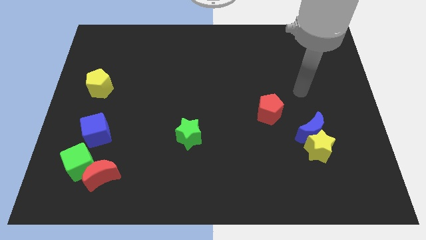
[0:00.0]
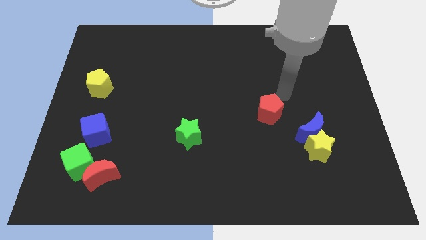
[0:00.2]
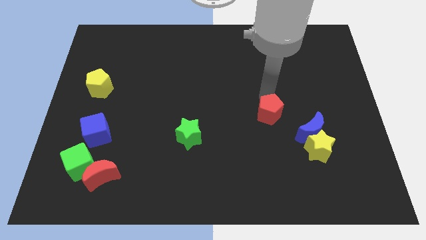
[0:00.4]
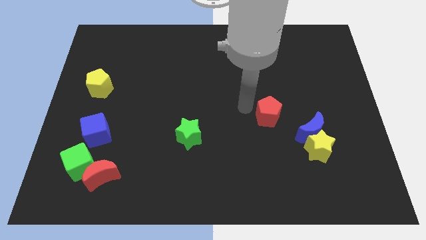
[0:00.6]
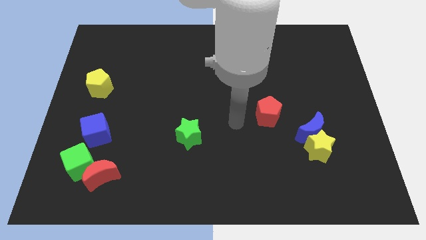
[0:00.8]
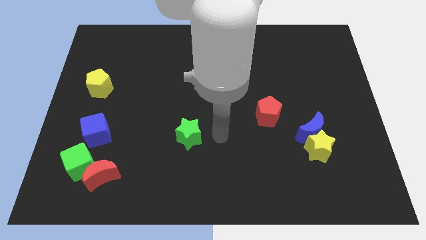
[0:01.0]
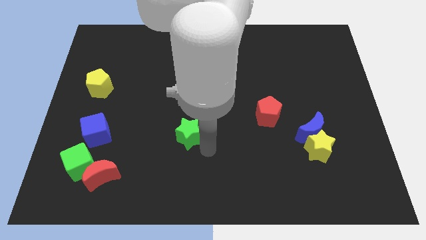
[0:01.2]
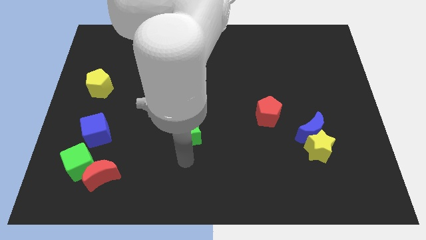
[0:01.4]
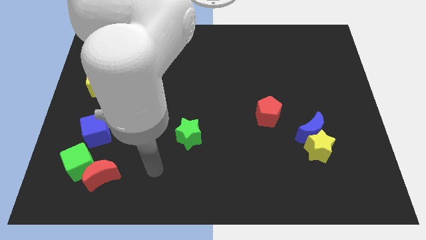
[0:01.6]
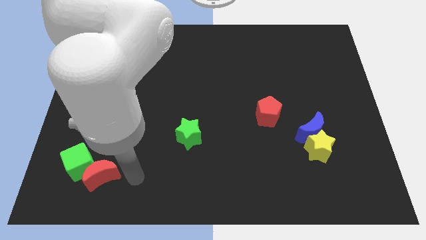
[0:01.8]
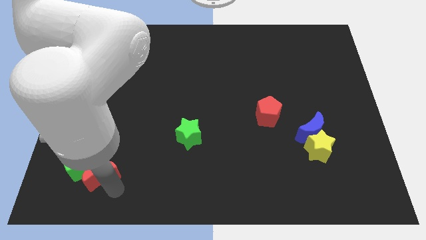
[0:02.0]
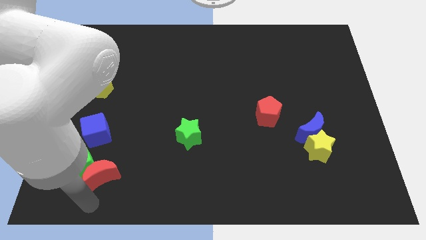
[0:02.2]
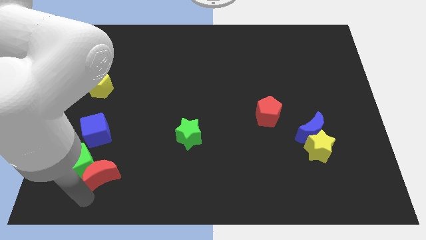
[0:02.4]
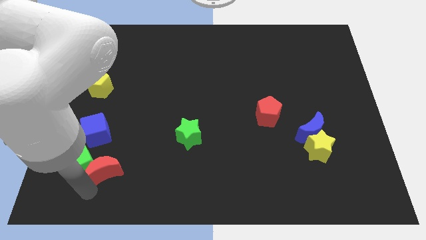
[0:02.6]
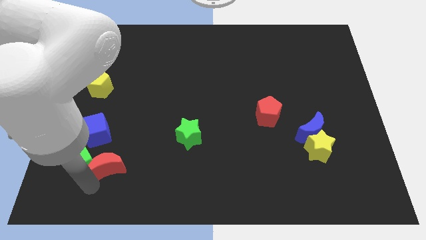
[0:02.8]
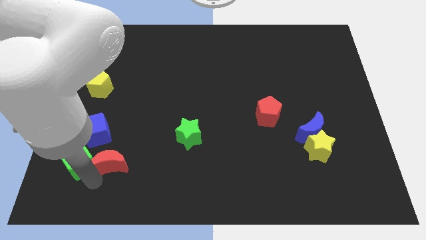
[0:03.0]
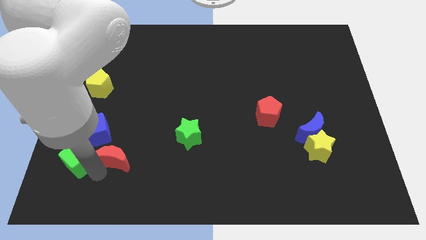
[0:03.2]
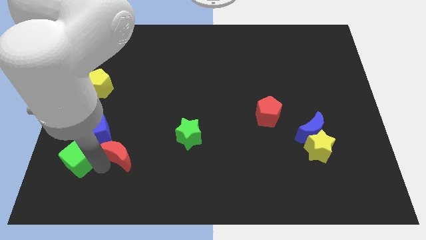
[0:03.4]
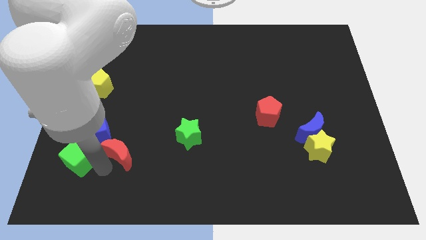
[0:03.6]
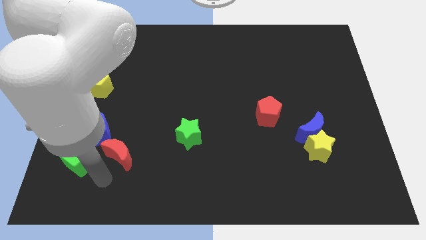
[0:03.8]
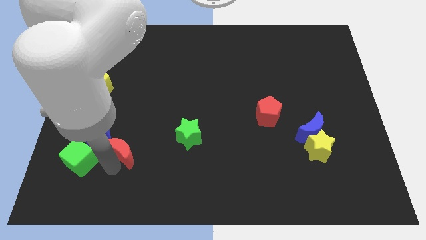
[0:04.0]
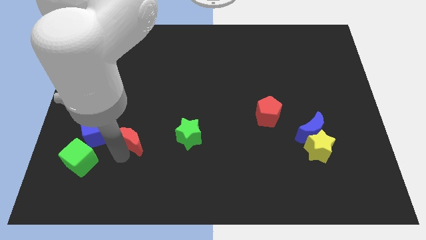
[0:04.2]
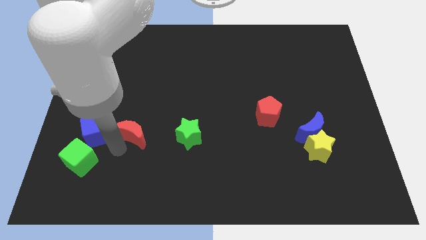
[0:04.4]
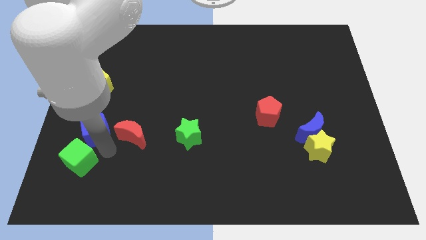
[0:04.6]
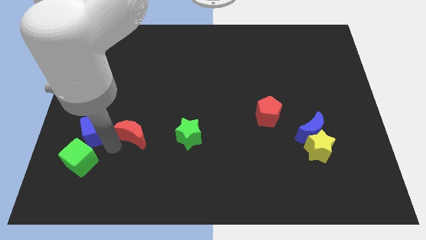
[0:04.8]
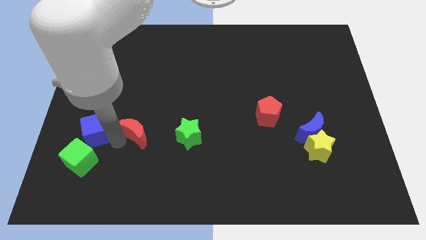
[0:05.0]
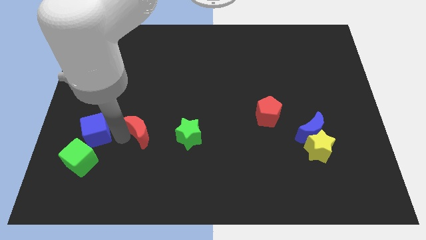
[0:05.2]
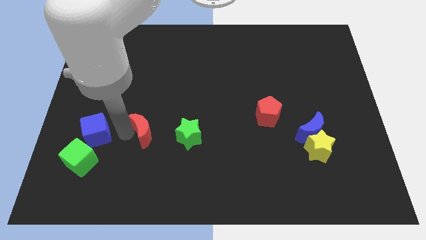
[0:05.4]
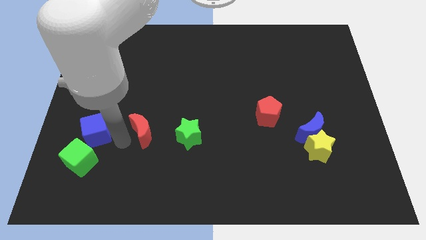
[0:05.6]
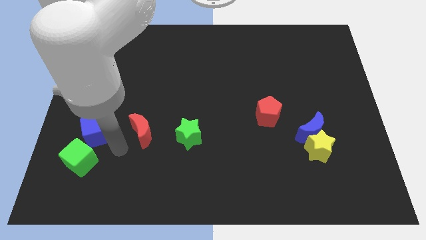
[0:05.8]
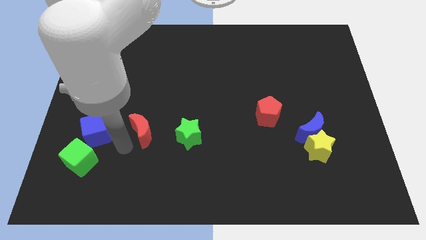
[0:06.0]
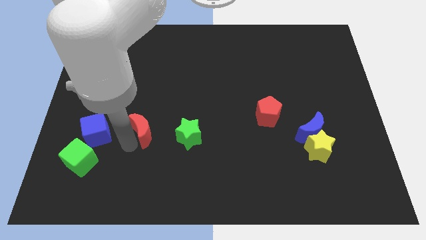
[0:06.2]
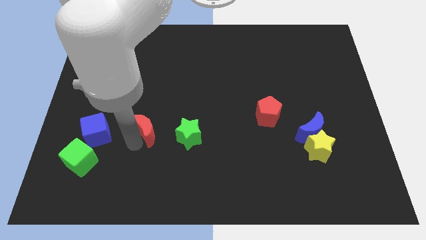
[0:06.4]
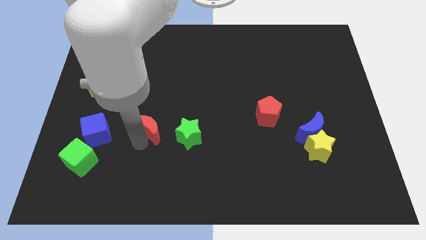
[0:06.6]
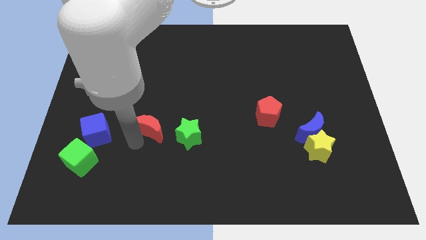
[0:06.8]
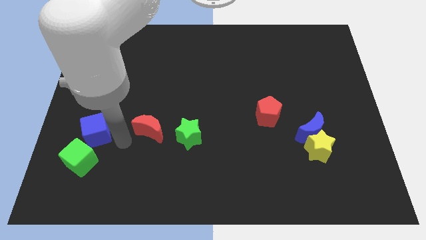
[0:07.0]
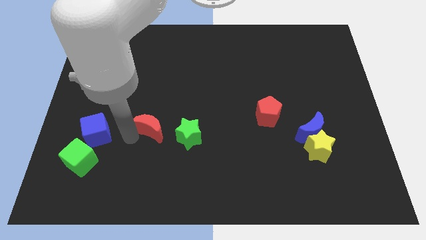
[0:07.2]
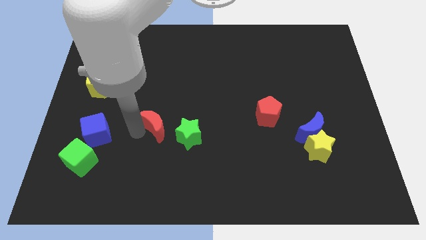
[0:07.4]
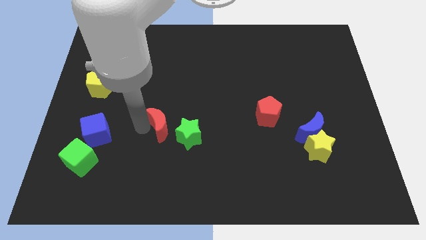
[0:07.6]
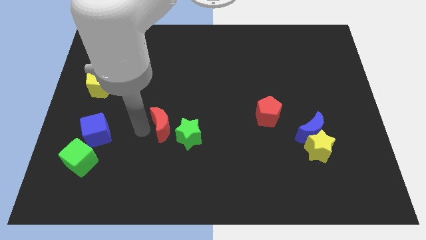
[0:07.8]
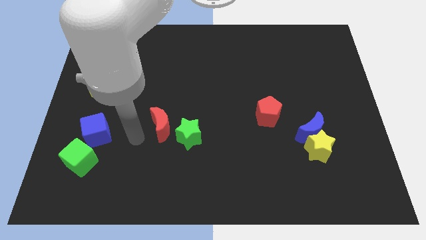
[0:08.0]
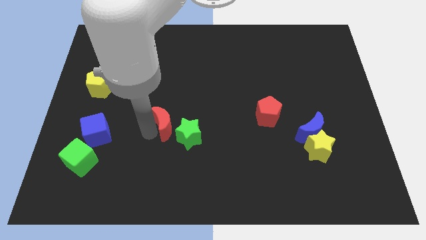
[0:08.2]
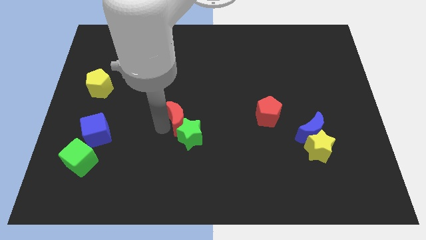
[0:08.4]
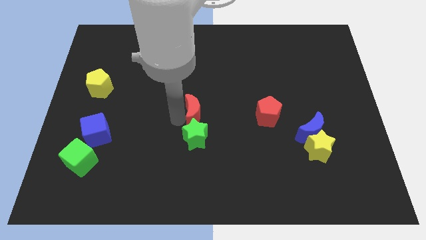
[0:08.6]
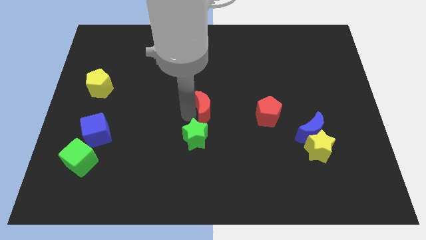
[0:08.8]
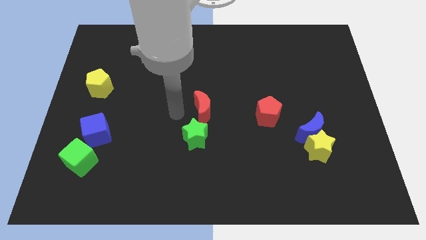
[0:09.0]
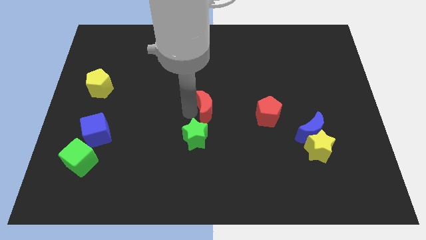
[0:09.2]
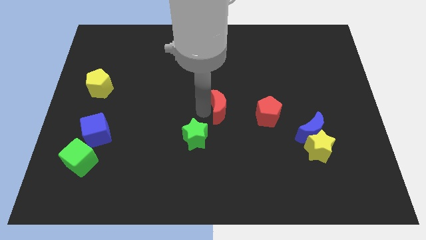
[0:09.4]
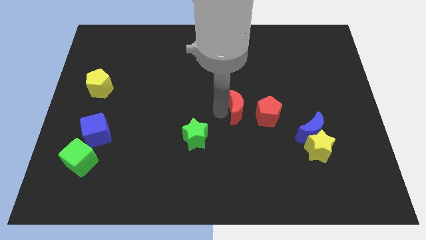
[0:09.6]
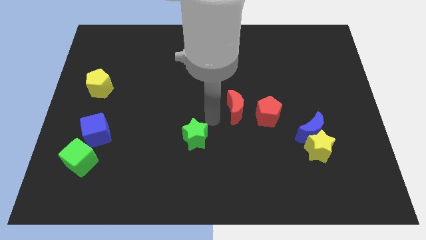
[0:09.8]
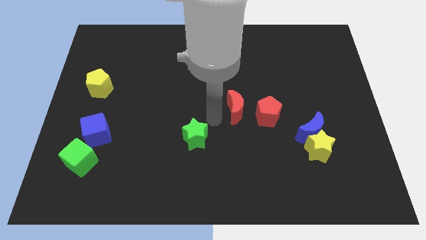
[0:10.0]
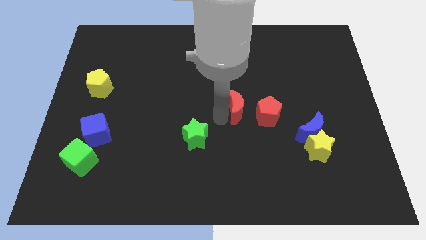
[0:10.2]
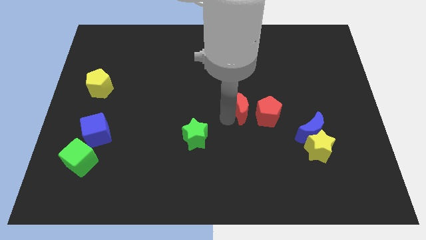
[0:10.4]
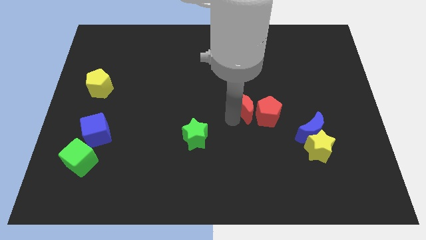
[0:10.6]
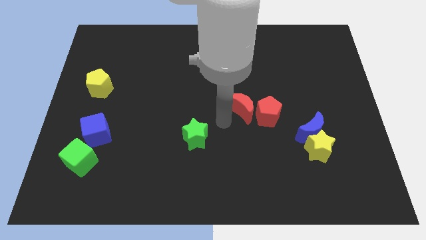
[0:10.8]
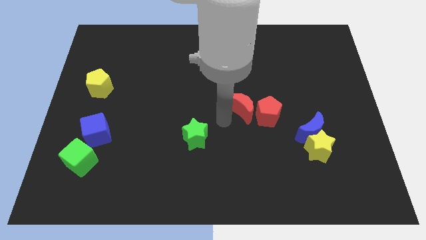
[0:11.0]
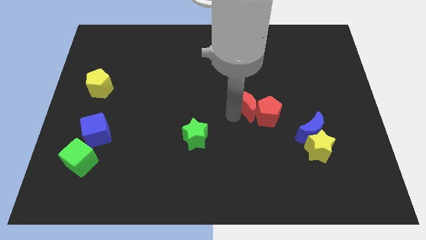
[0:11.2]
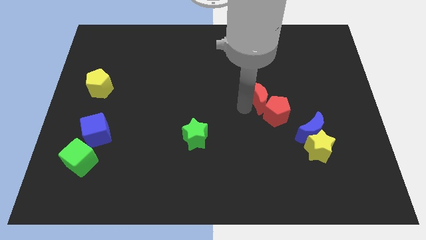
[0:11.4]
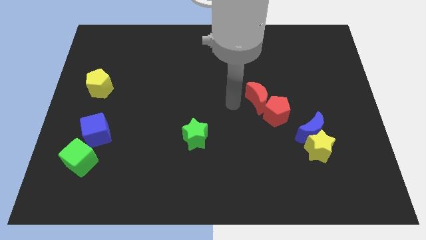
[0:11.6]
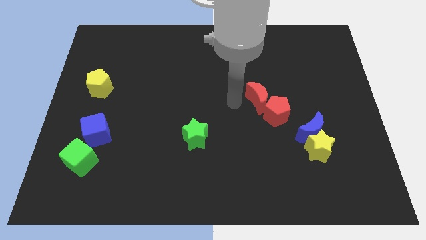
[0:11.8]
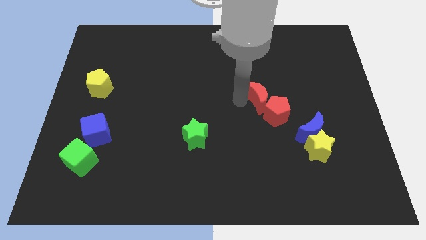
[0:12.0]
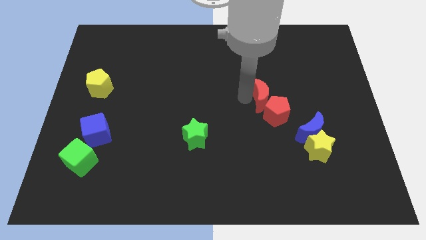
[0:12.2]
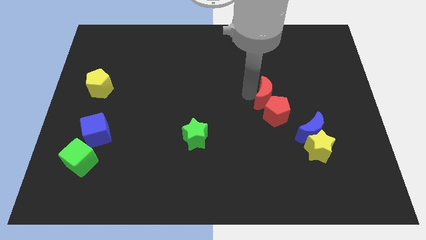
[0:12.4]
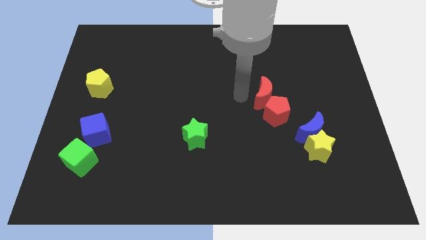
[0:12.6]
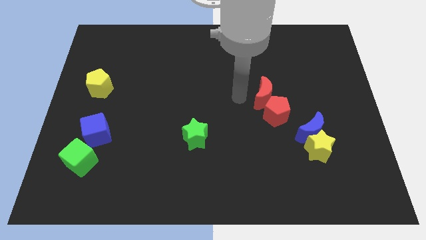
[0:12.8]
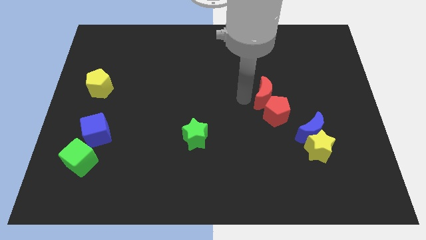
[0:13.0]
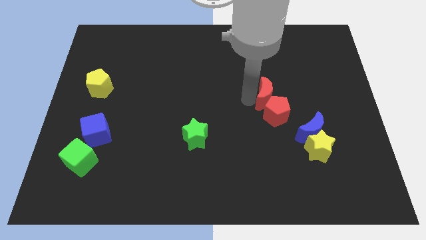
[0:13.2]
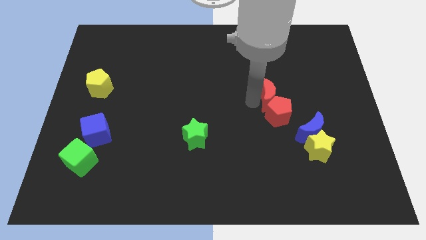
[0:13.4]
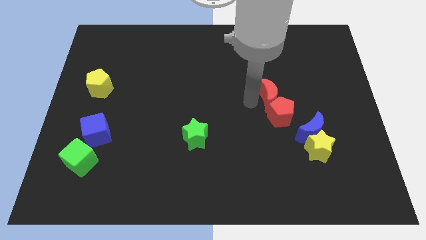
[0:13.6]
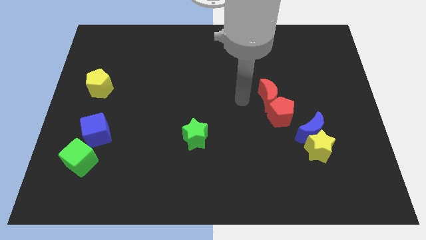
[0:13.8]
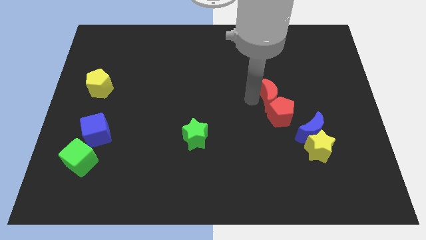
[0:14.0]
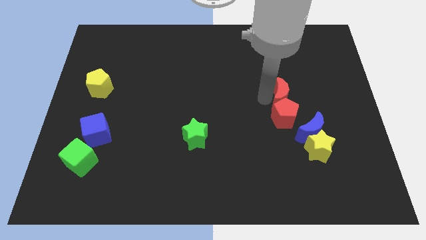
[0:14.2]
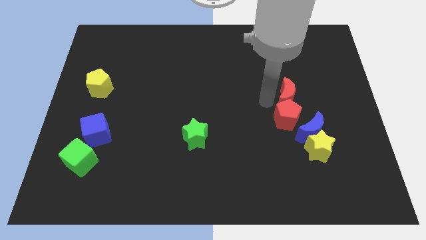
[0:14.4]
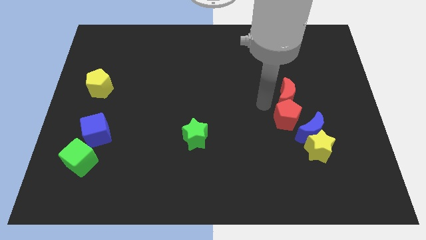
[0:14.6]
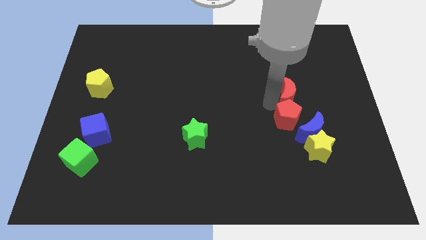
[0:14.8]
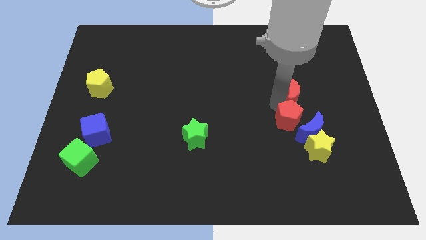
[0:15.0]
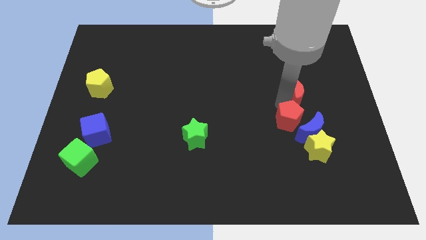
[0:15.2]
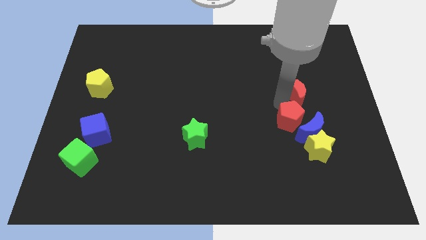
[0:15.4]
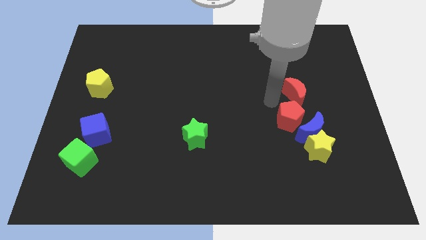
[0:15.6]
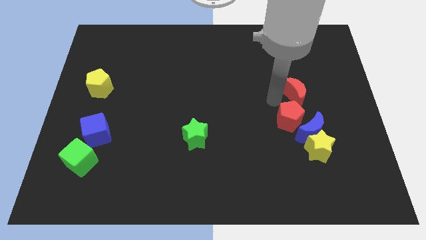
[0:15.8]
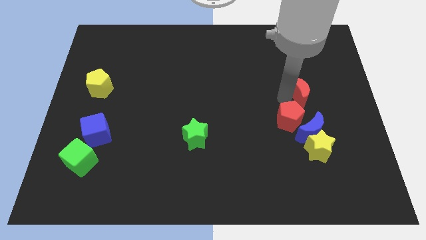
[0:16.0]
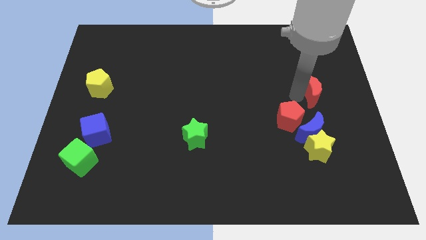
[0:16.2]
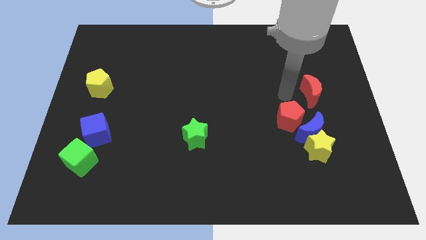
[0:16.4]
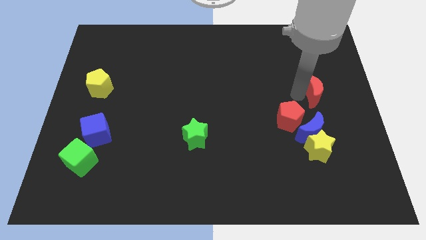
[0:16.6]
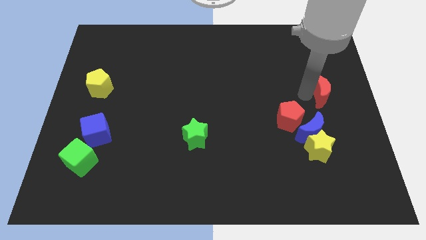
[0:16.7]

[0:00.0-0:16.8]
push the red moon to the right side
